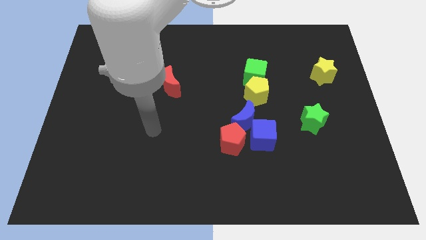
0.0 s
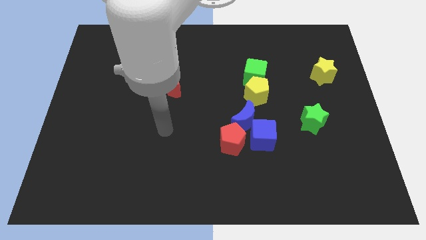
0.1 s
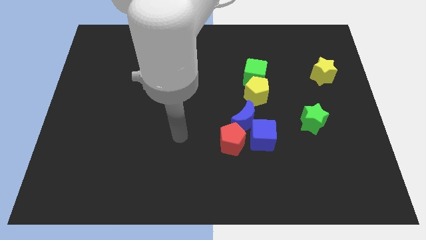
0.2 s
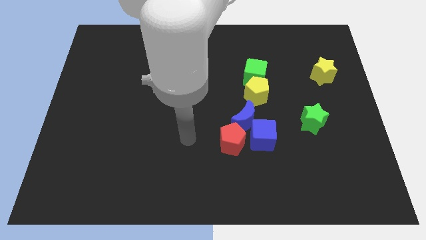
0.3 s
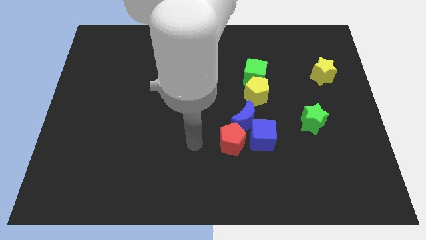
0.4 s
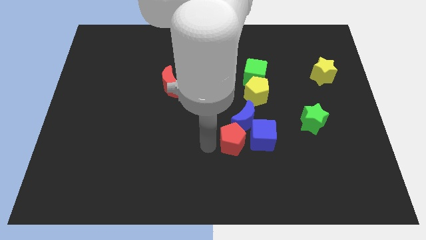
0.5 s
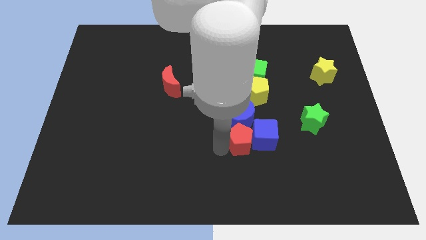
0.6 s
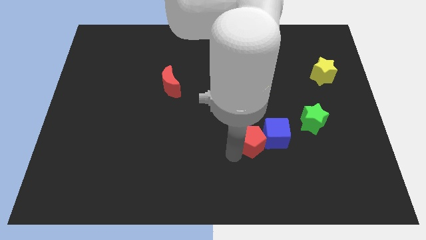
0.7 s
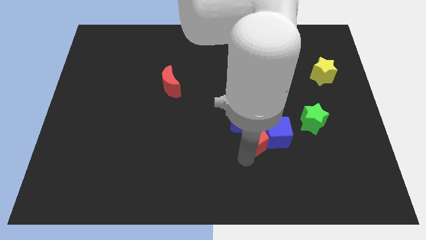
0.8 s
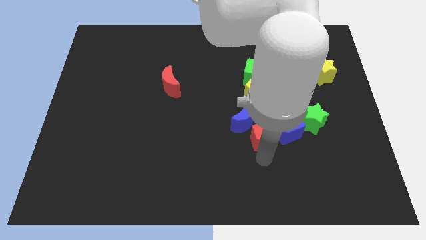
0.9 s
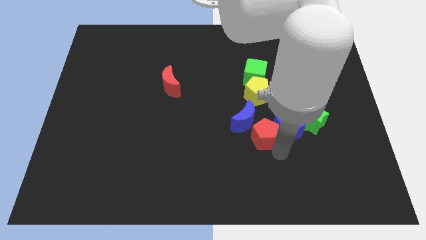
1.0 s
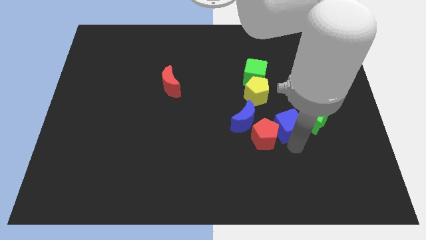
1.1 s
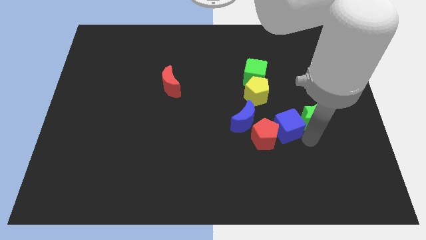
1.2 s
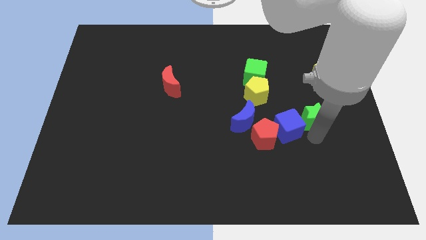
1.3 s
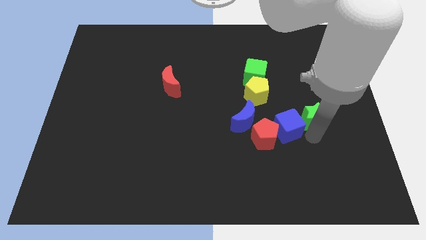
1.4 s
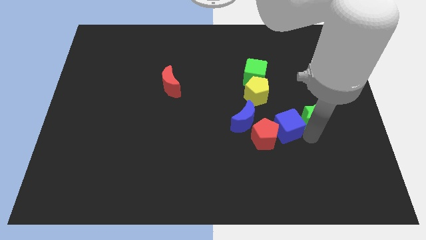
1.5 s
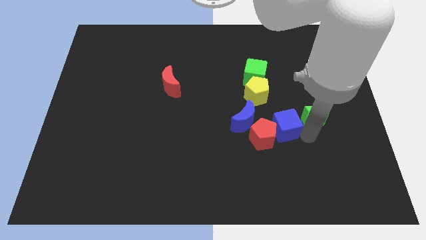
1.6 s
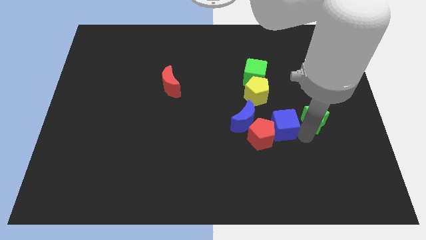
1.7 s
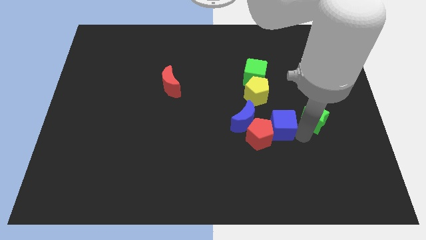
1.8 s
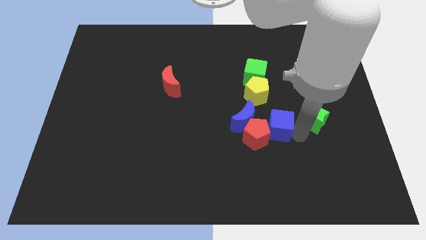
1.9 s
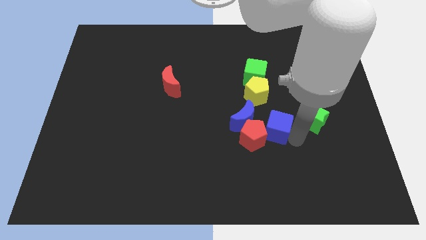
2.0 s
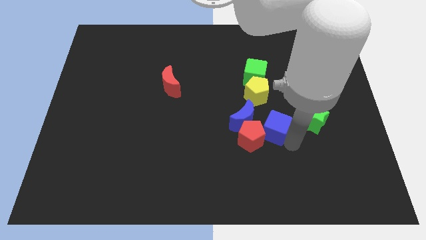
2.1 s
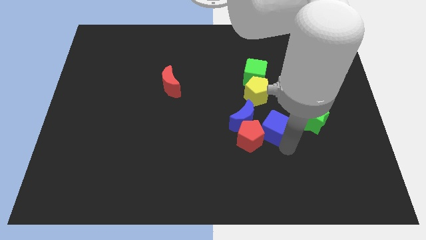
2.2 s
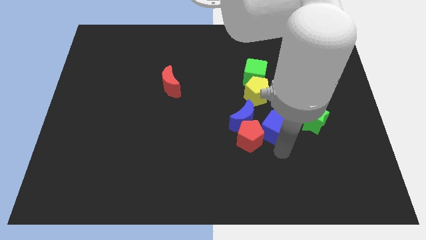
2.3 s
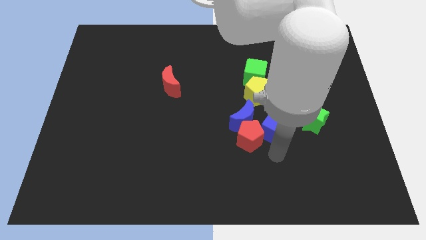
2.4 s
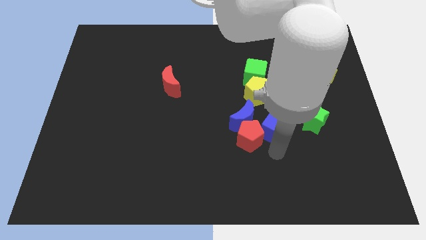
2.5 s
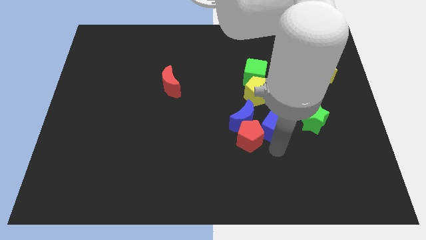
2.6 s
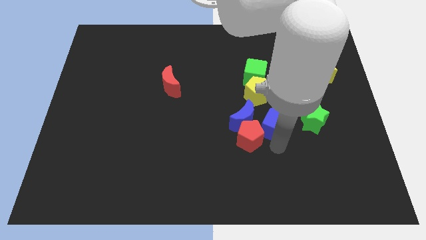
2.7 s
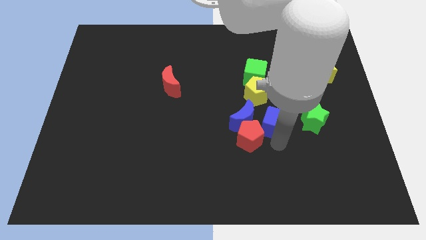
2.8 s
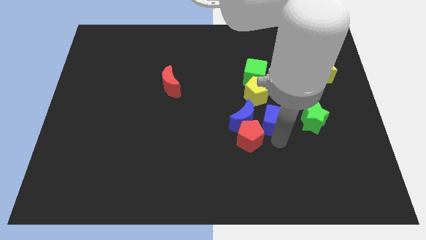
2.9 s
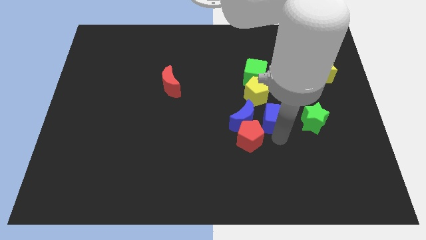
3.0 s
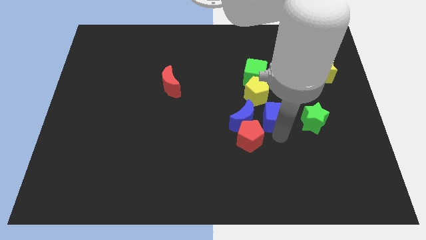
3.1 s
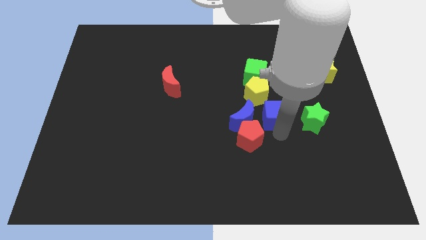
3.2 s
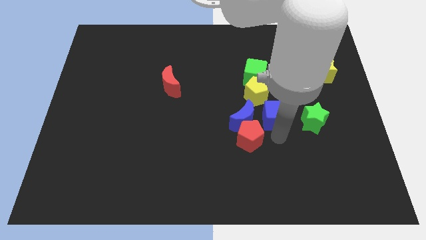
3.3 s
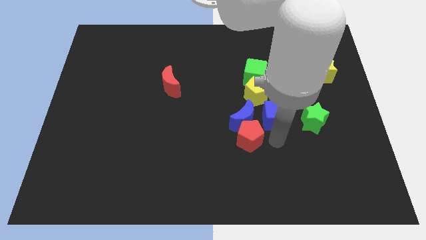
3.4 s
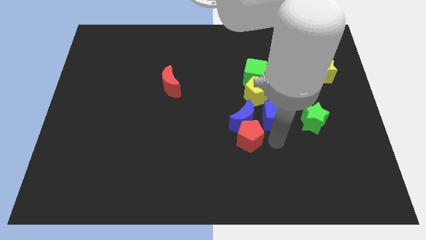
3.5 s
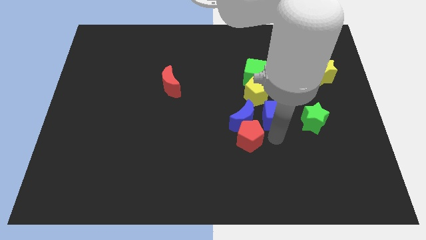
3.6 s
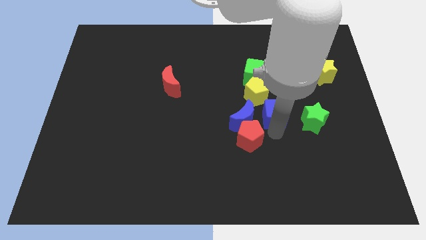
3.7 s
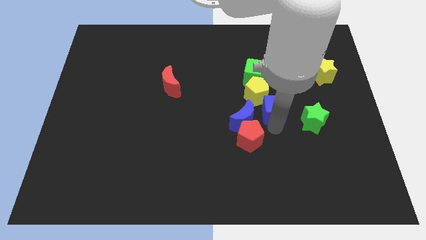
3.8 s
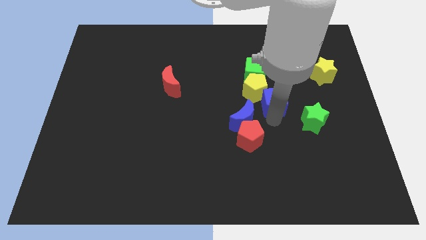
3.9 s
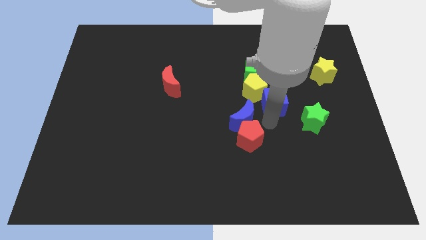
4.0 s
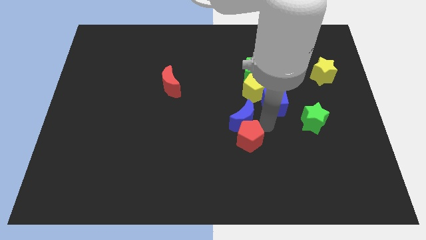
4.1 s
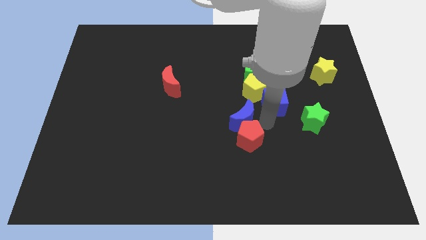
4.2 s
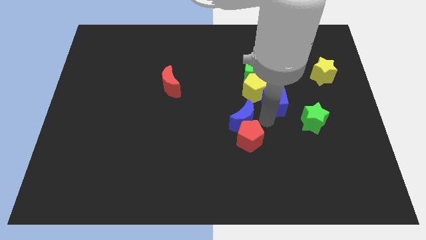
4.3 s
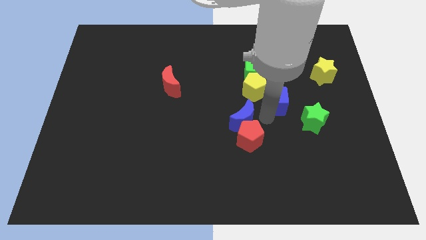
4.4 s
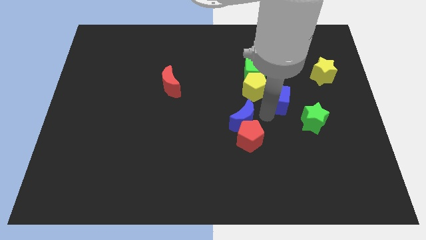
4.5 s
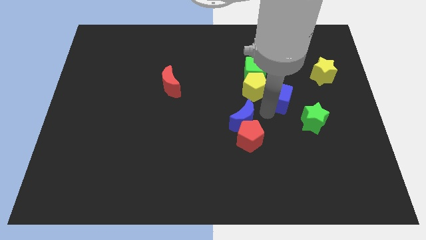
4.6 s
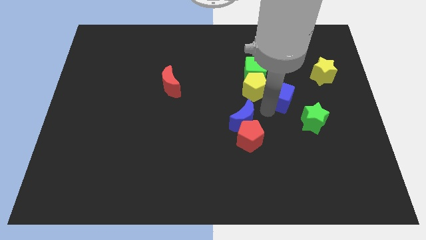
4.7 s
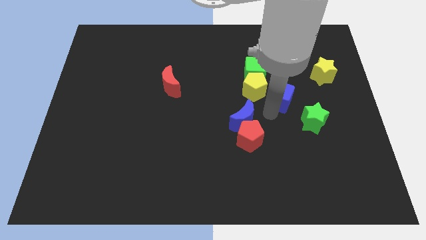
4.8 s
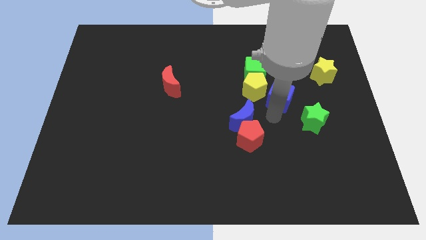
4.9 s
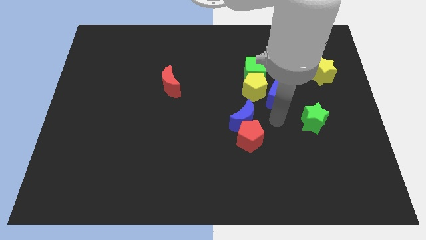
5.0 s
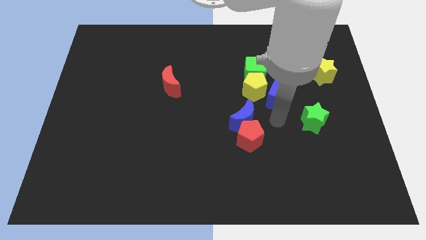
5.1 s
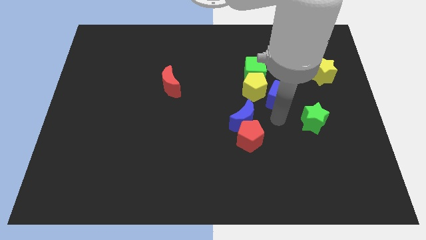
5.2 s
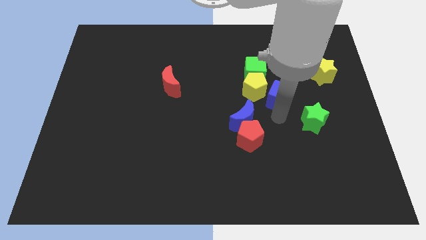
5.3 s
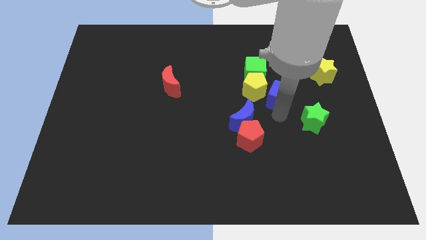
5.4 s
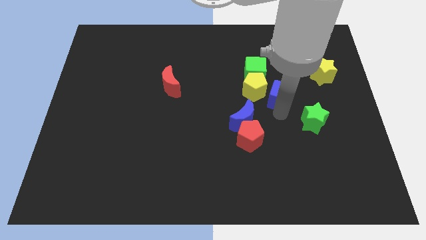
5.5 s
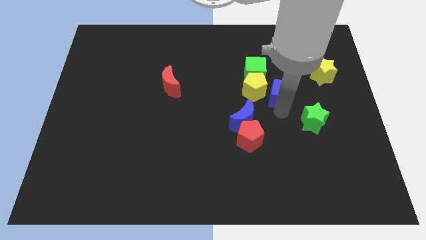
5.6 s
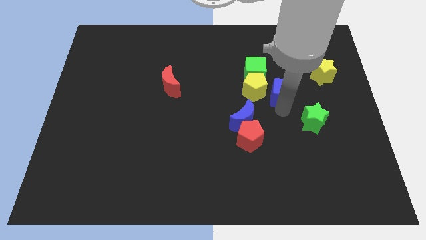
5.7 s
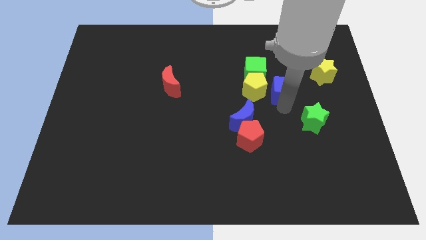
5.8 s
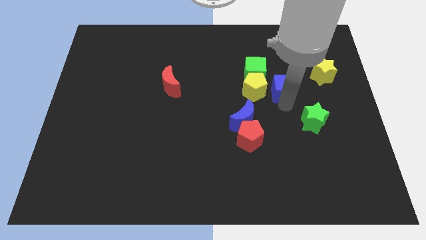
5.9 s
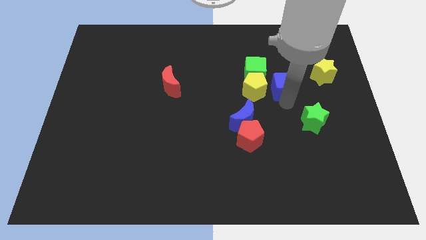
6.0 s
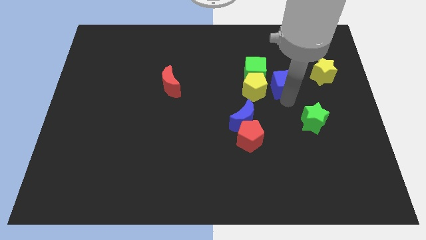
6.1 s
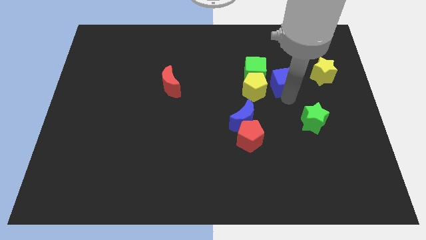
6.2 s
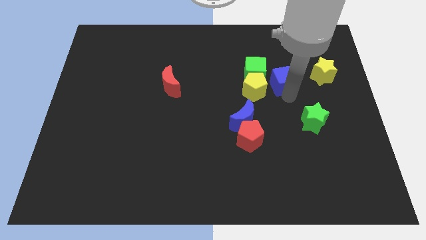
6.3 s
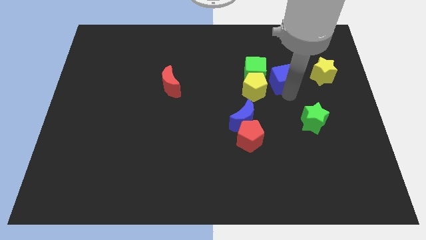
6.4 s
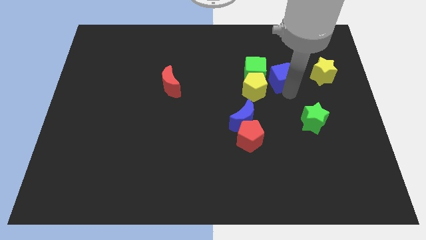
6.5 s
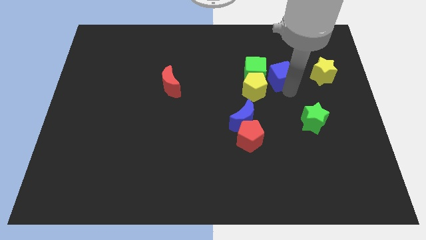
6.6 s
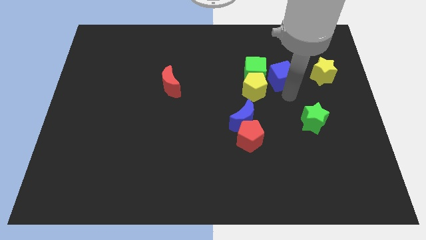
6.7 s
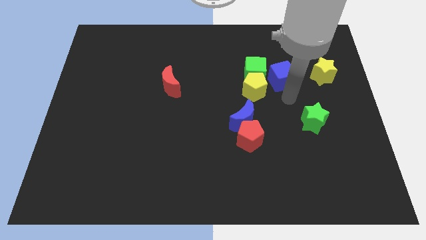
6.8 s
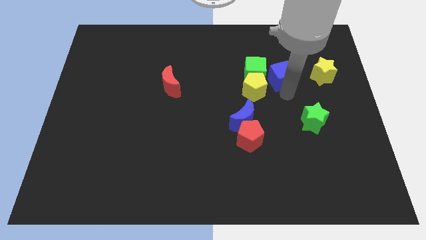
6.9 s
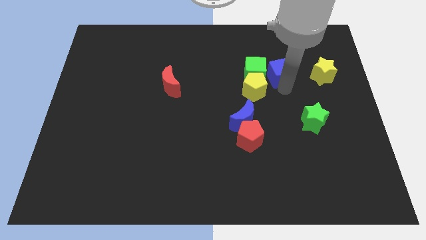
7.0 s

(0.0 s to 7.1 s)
put the blue cube diagonally up and to the right of the green cube
